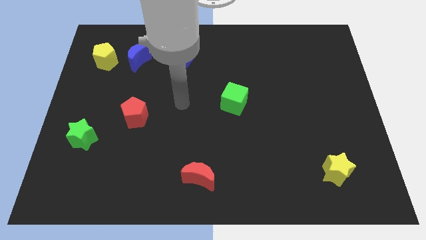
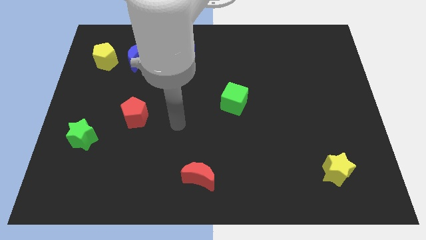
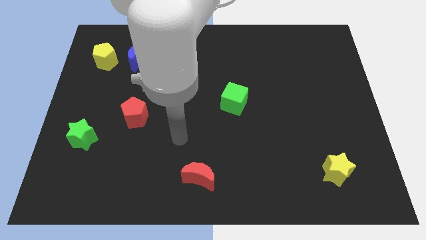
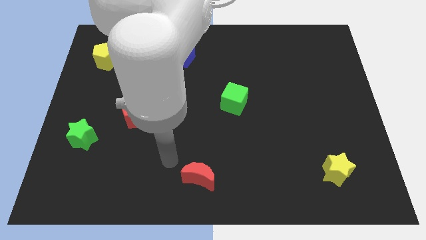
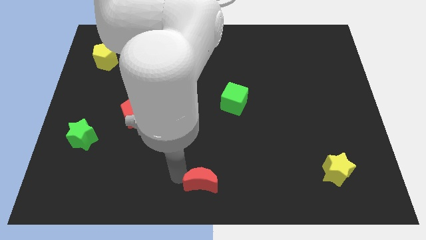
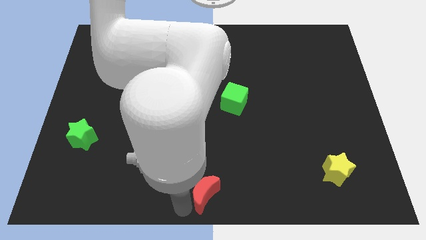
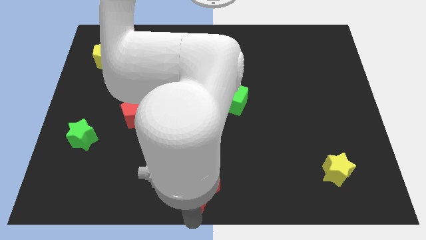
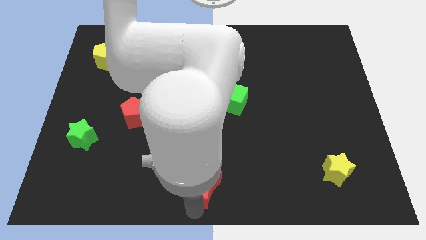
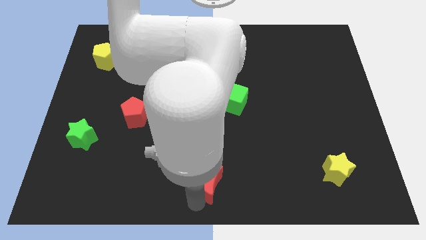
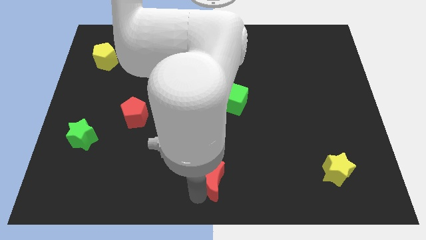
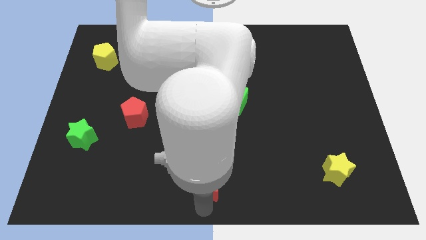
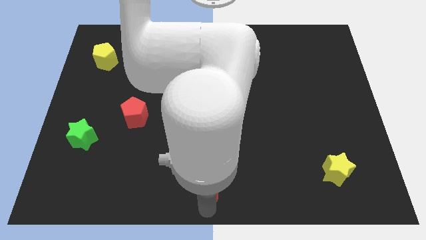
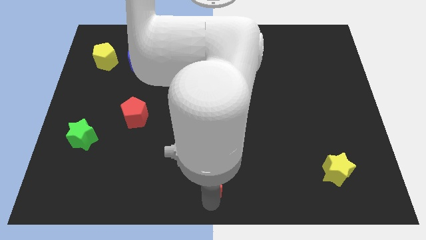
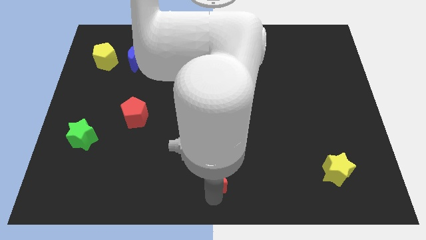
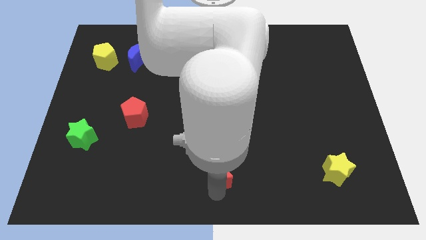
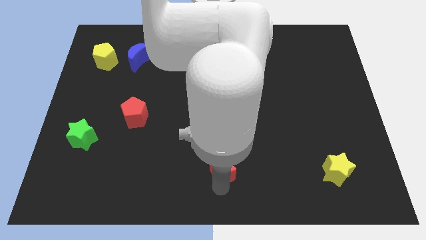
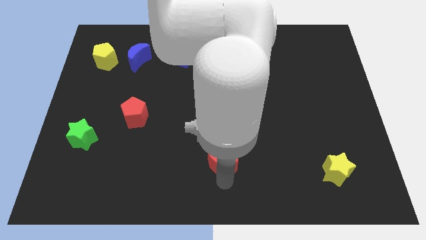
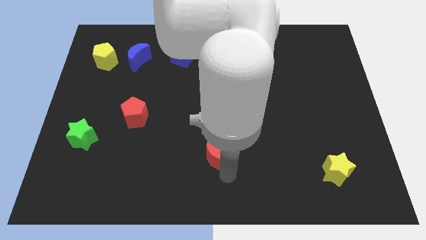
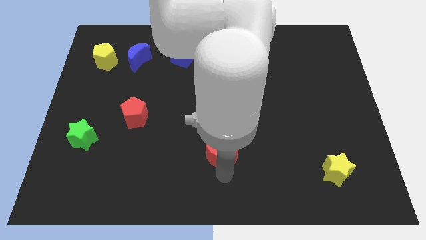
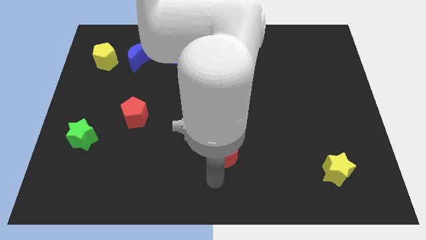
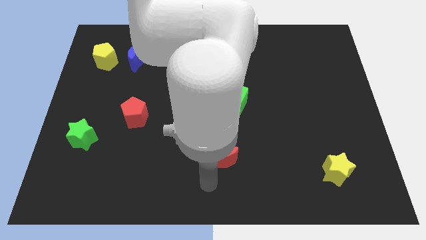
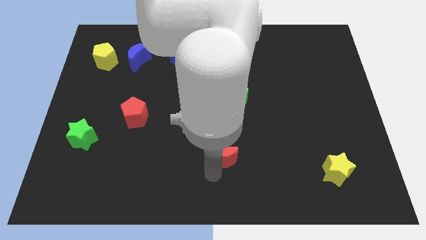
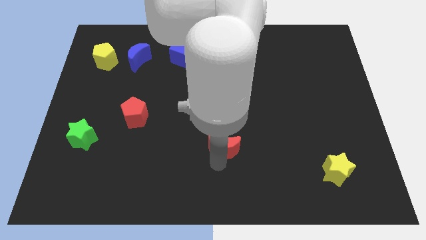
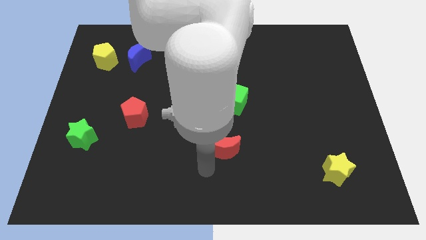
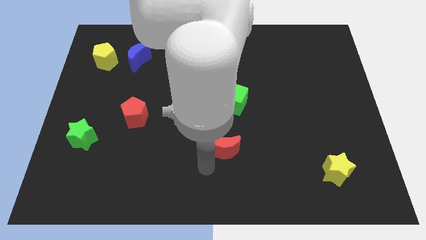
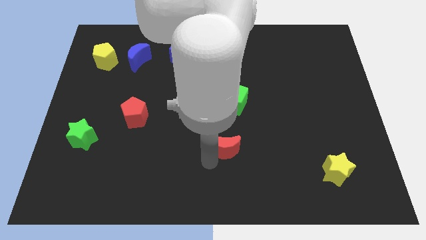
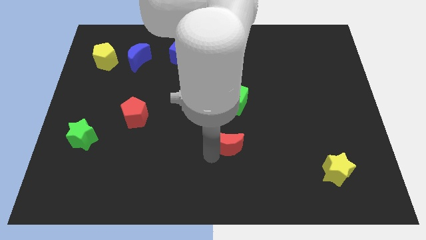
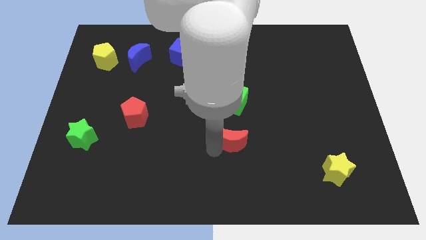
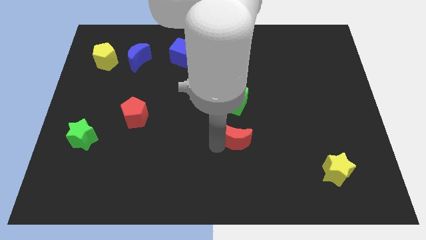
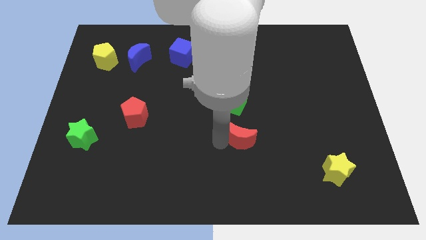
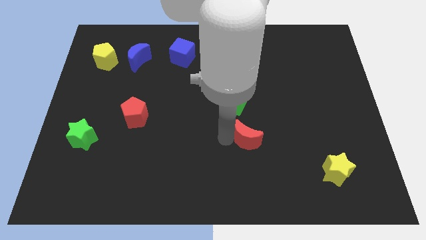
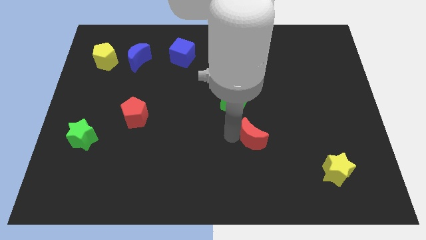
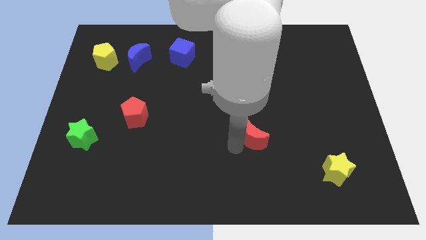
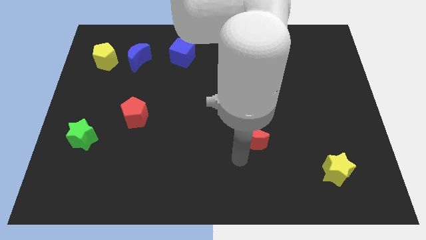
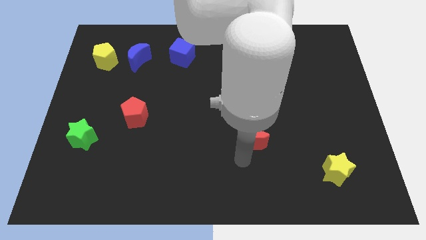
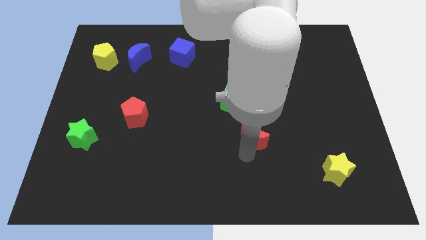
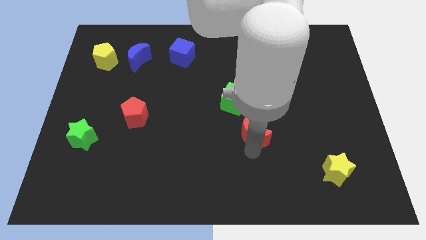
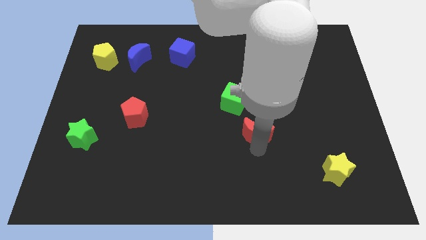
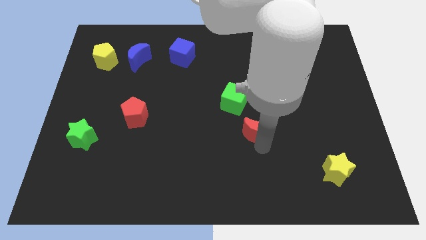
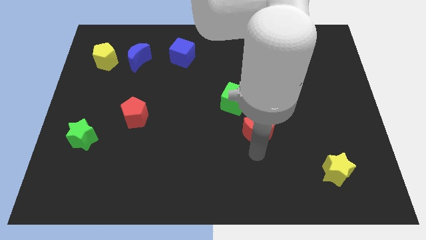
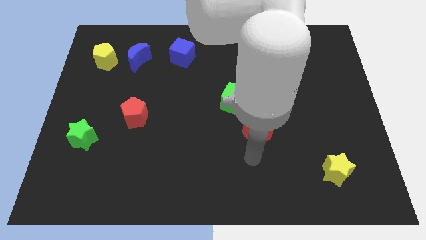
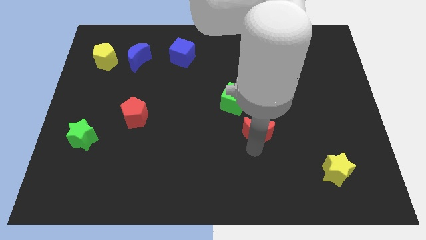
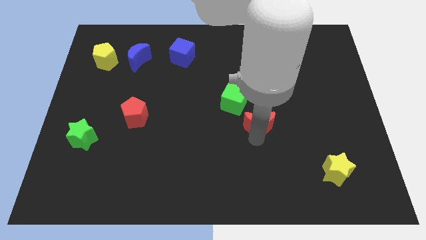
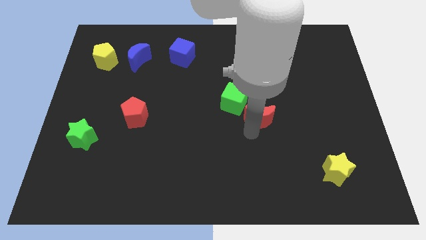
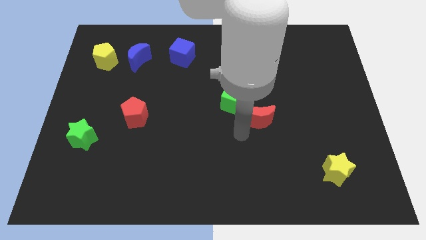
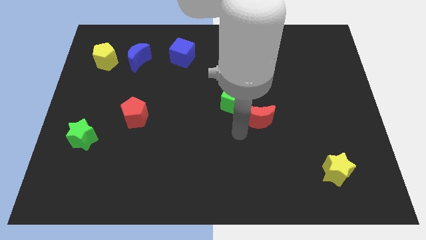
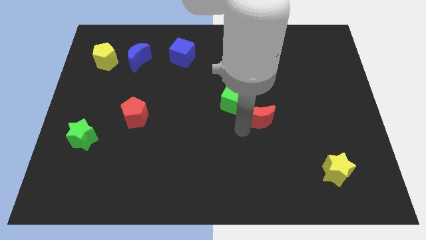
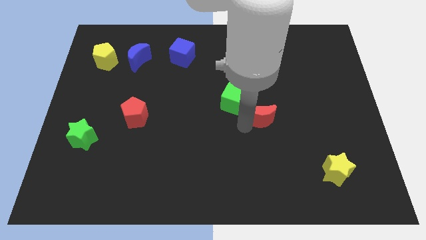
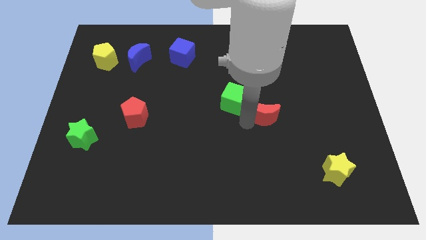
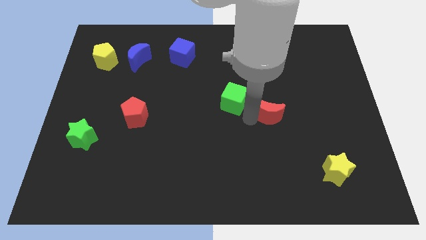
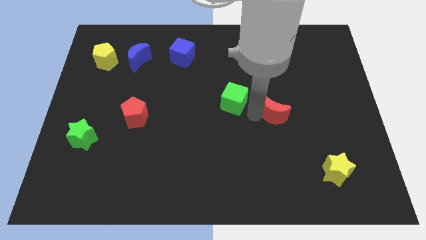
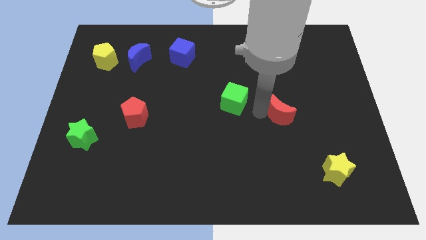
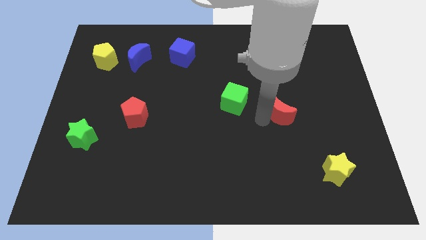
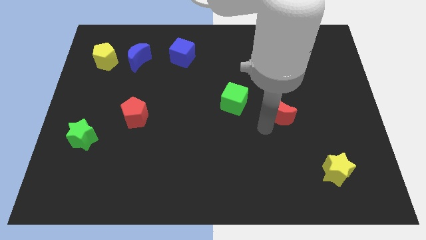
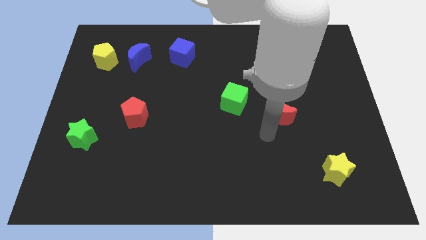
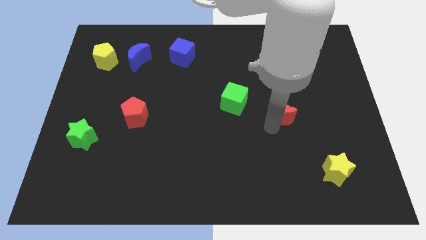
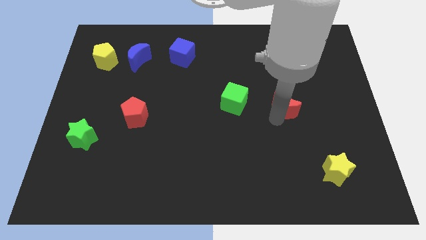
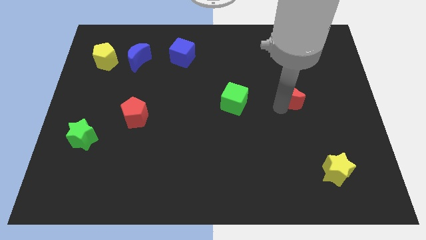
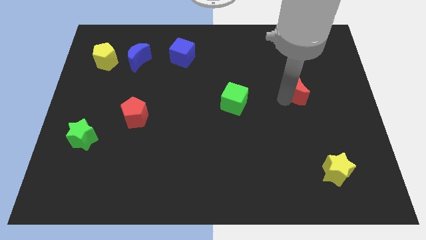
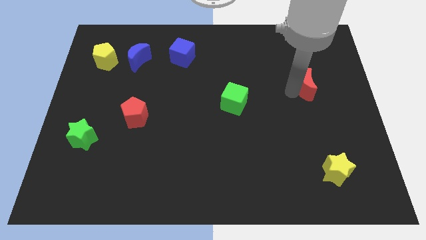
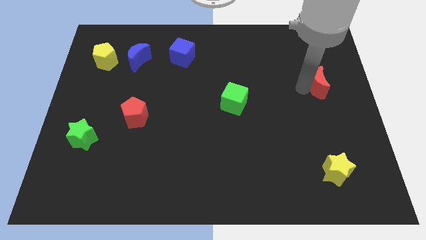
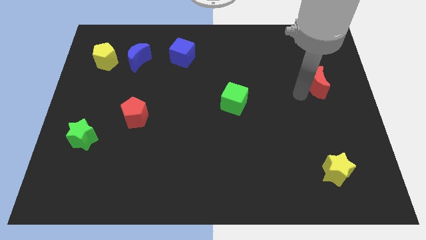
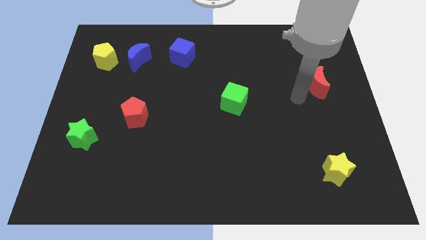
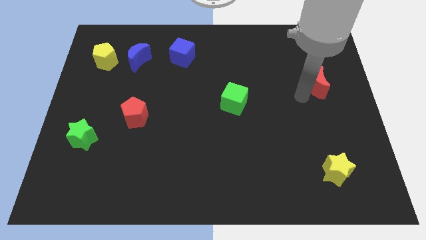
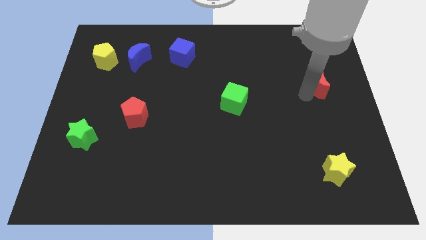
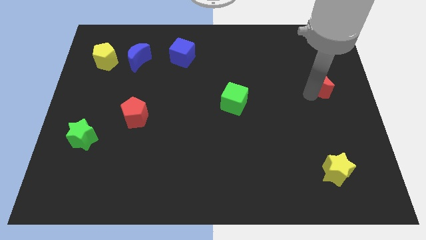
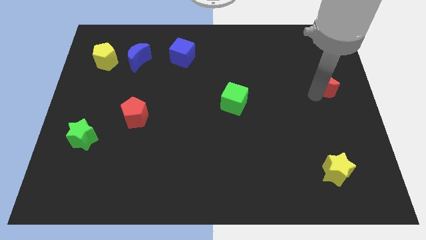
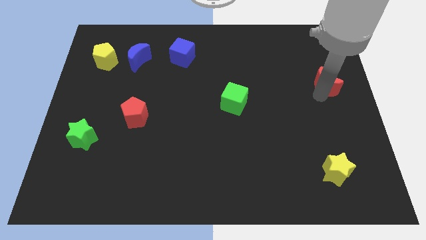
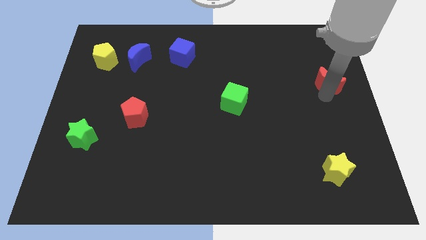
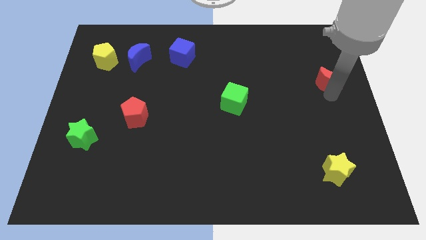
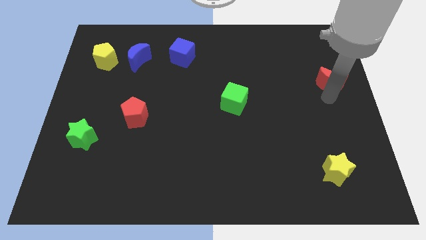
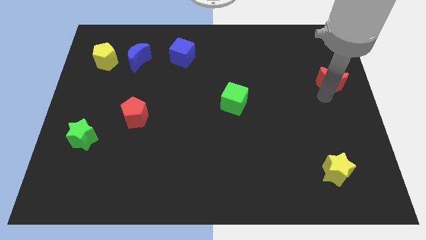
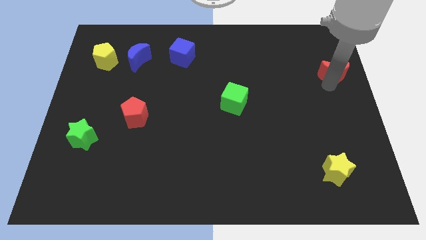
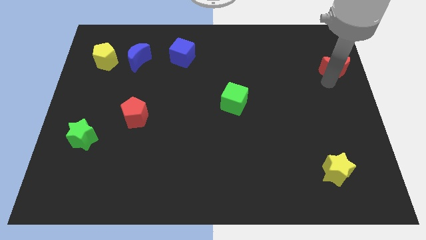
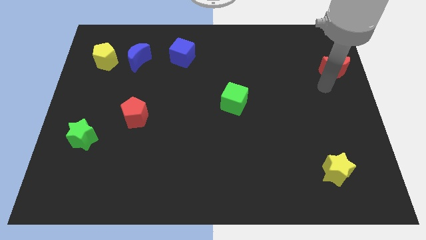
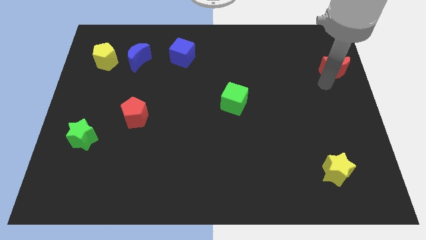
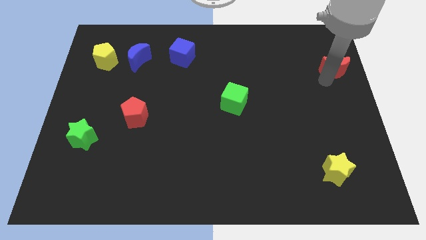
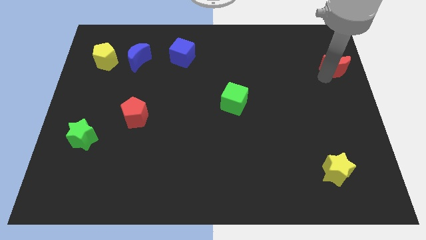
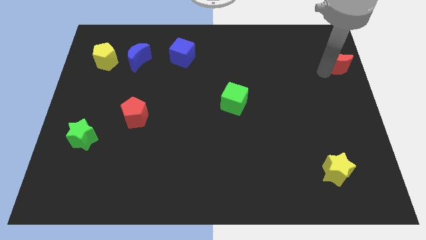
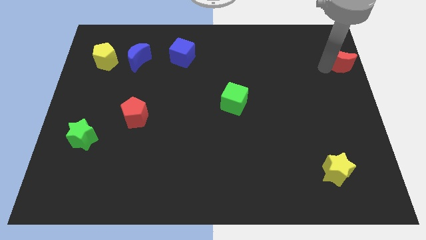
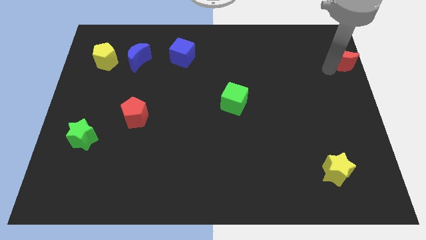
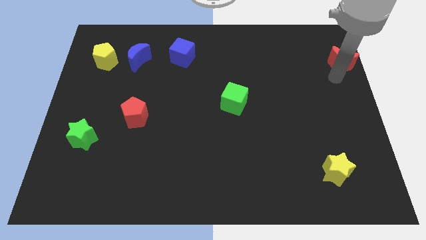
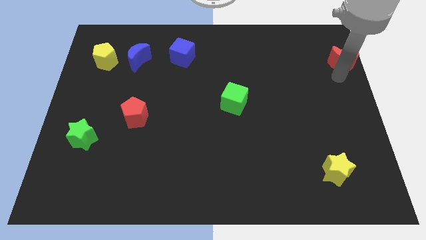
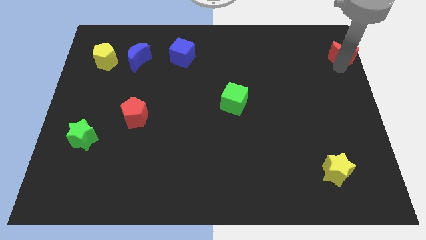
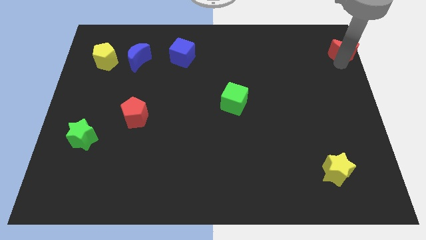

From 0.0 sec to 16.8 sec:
move the red moon to the upper right corner
